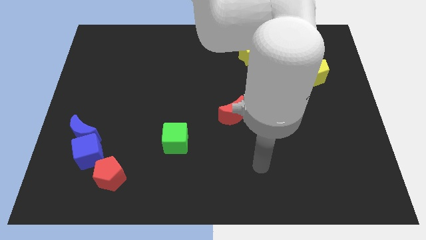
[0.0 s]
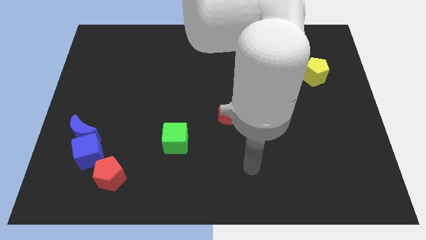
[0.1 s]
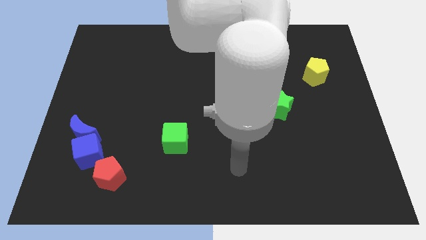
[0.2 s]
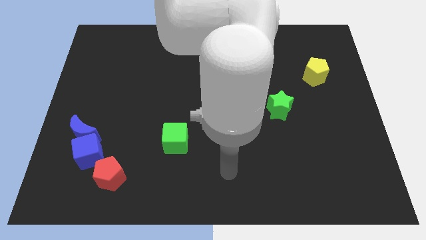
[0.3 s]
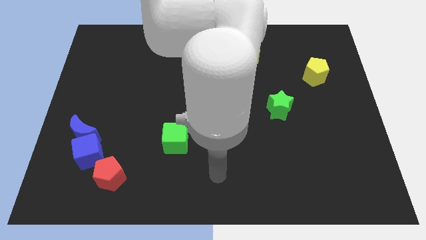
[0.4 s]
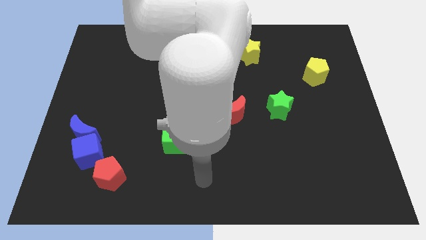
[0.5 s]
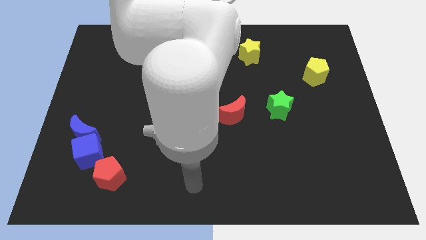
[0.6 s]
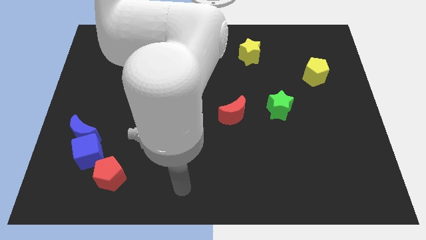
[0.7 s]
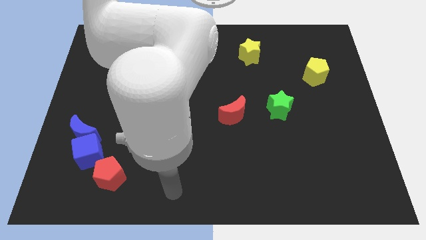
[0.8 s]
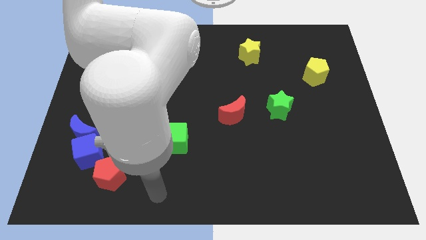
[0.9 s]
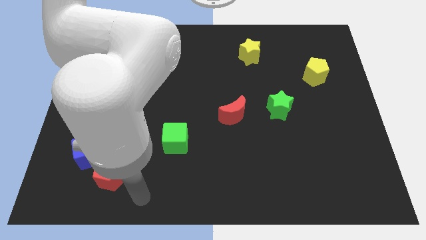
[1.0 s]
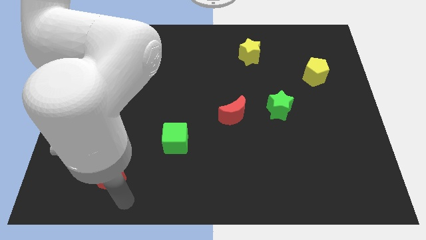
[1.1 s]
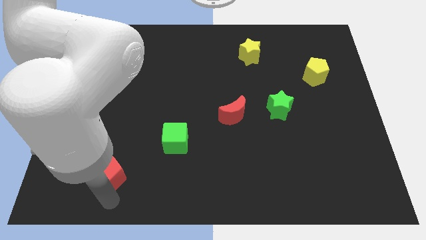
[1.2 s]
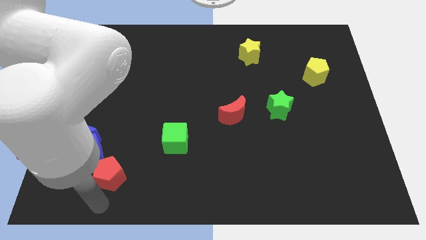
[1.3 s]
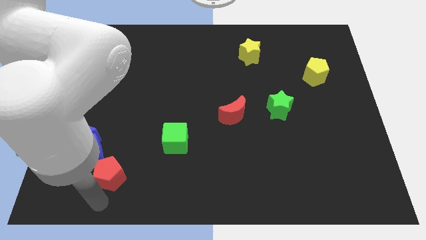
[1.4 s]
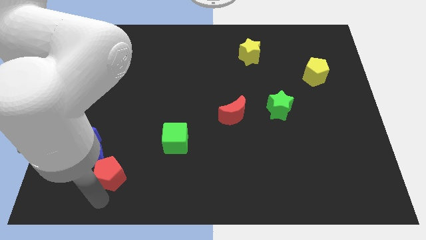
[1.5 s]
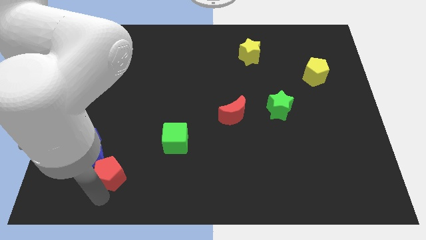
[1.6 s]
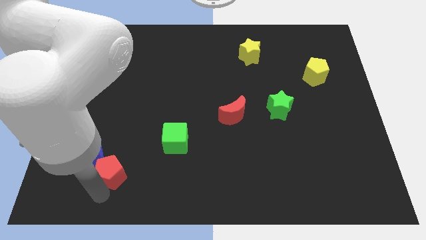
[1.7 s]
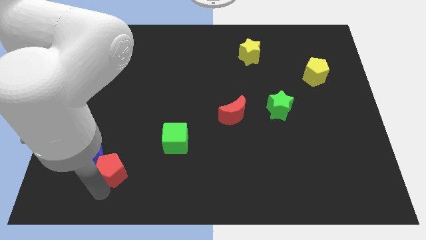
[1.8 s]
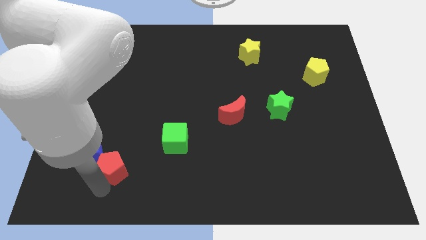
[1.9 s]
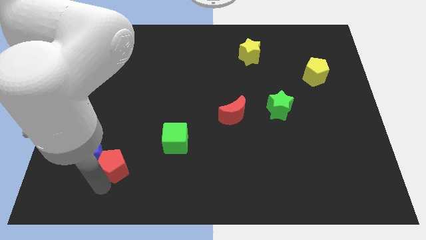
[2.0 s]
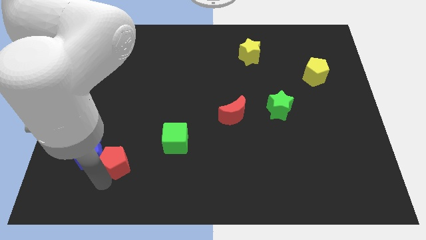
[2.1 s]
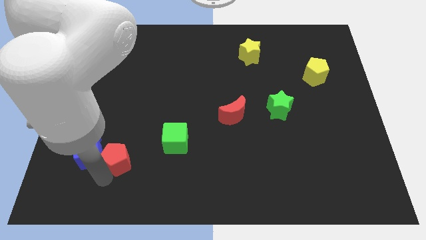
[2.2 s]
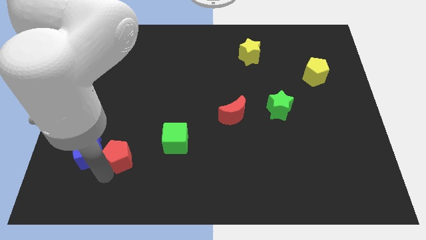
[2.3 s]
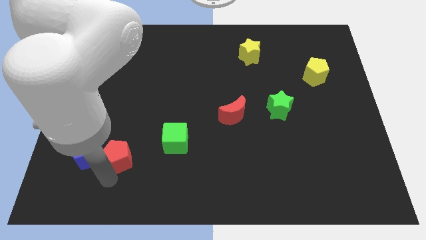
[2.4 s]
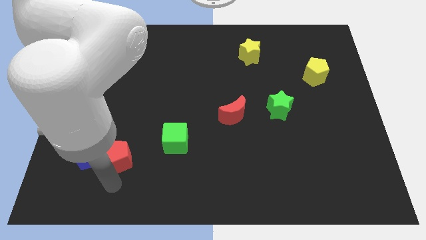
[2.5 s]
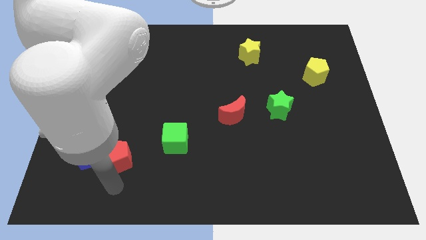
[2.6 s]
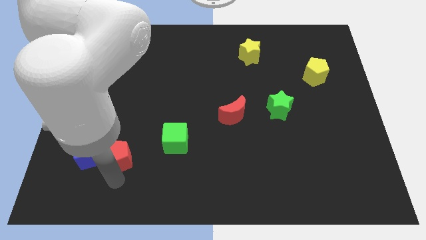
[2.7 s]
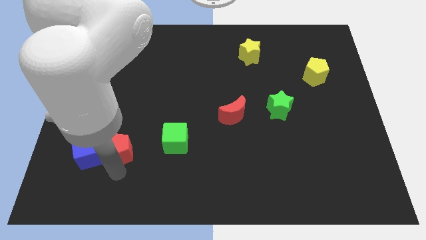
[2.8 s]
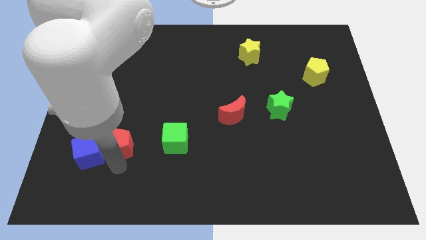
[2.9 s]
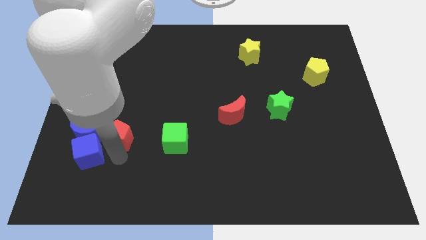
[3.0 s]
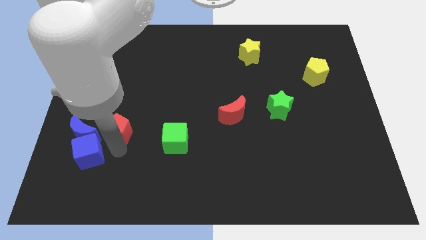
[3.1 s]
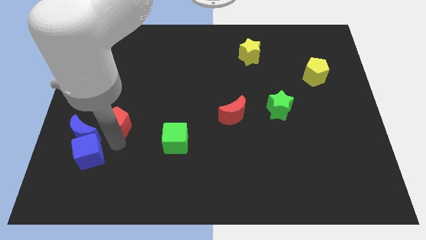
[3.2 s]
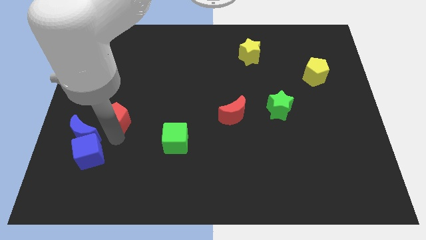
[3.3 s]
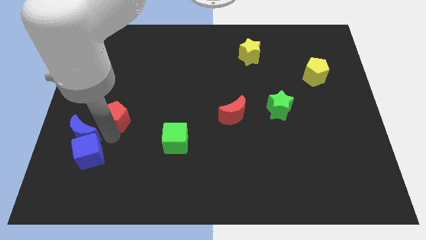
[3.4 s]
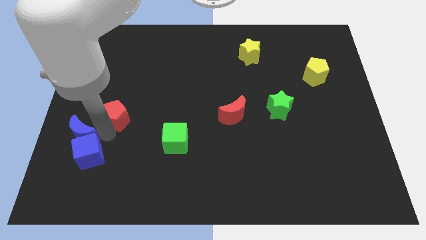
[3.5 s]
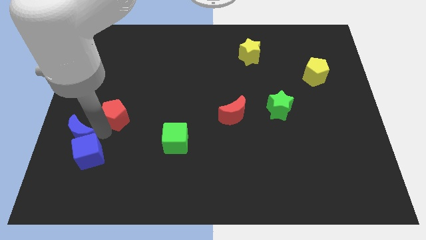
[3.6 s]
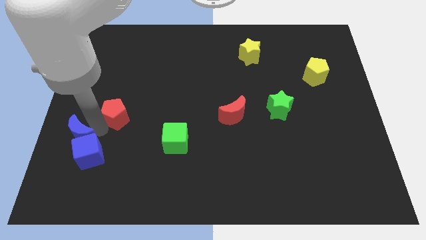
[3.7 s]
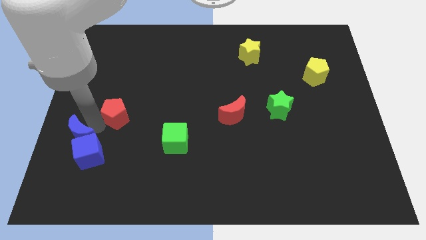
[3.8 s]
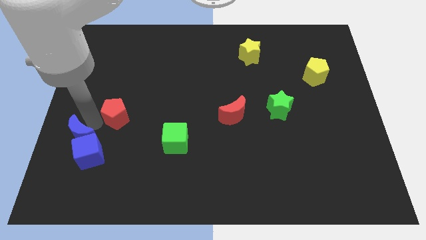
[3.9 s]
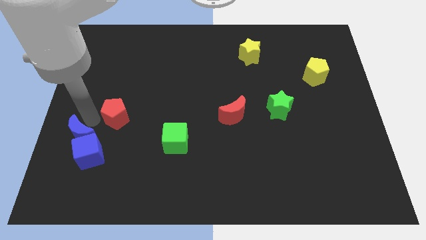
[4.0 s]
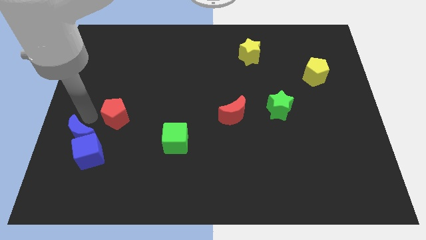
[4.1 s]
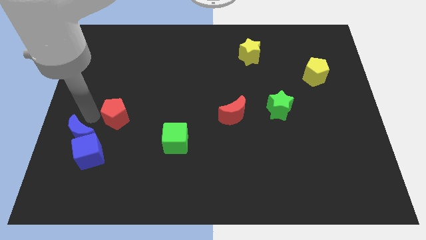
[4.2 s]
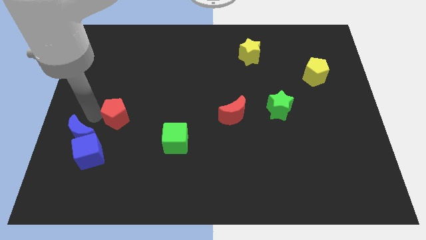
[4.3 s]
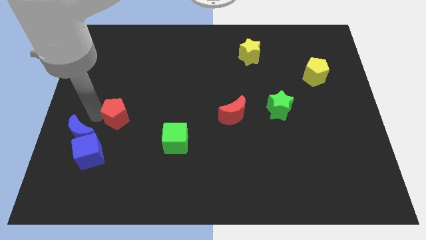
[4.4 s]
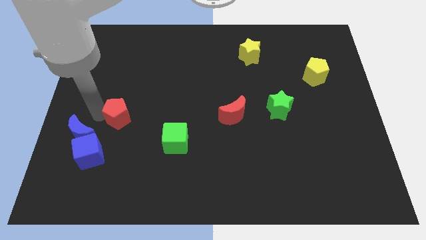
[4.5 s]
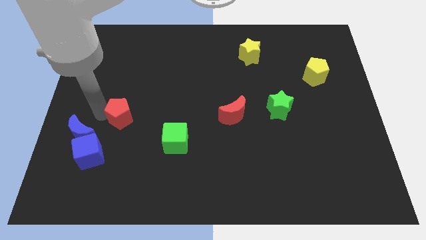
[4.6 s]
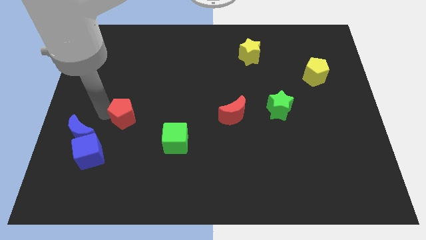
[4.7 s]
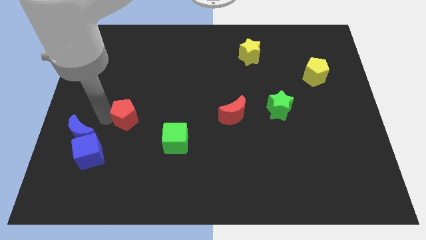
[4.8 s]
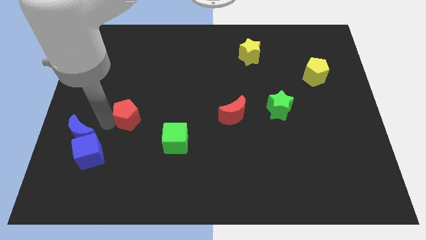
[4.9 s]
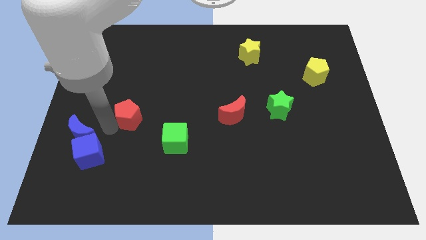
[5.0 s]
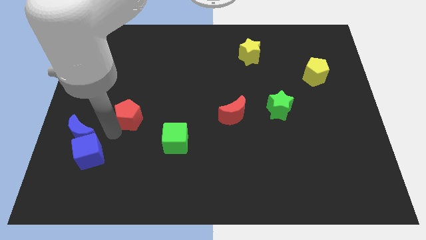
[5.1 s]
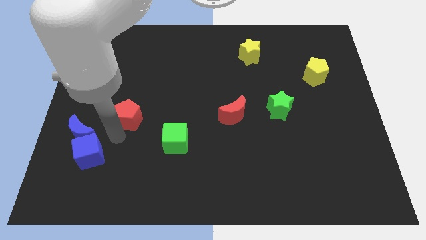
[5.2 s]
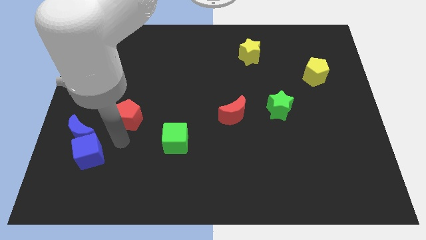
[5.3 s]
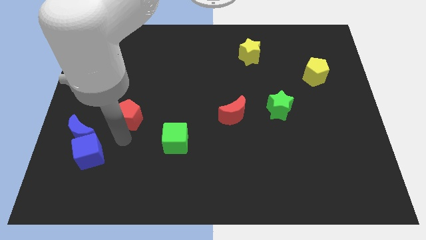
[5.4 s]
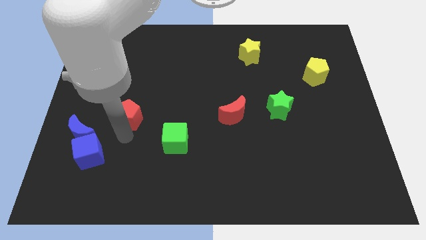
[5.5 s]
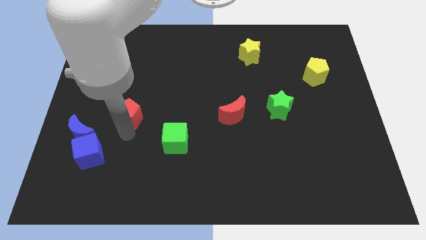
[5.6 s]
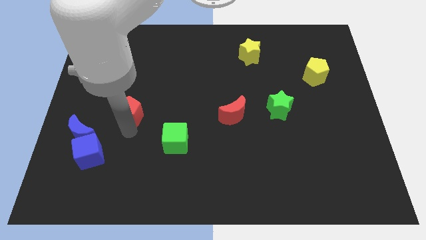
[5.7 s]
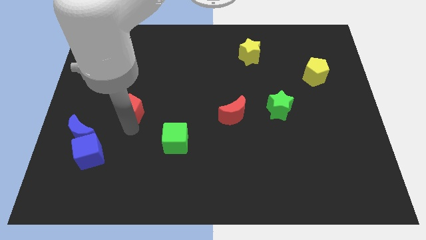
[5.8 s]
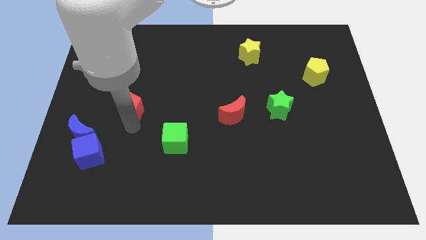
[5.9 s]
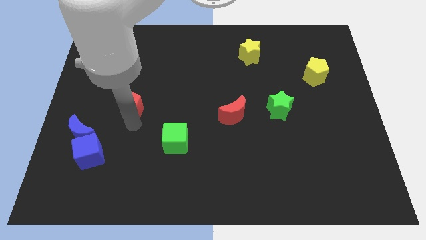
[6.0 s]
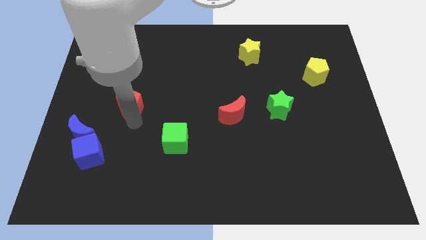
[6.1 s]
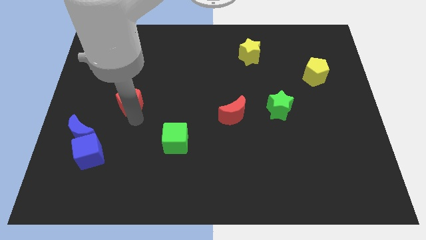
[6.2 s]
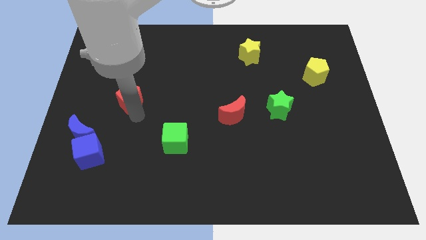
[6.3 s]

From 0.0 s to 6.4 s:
slide the red pentagon upwards

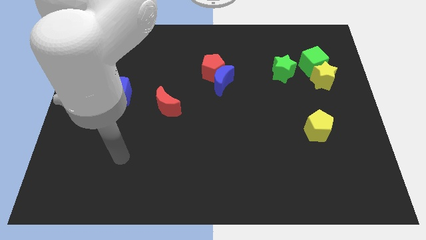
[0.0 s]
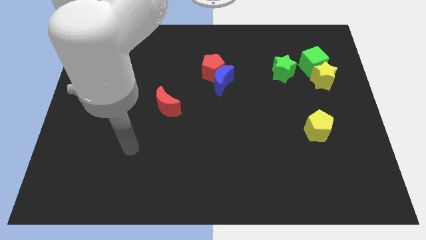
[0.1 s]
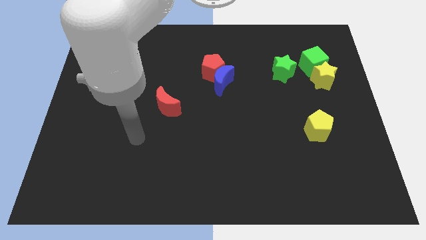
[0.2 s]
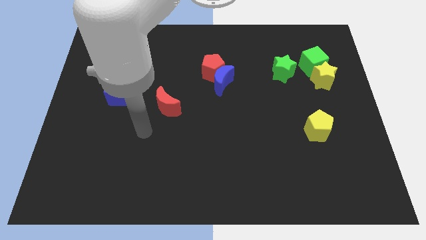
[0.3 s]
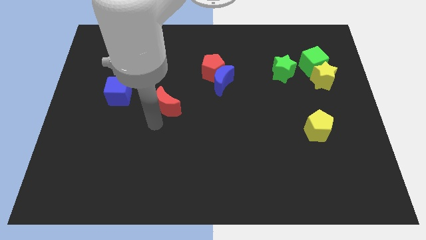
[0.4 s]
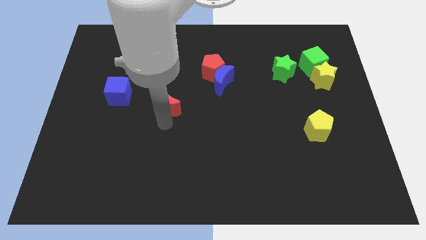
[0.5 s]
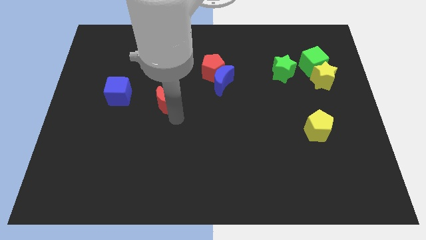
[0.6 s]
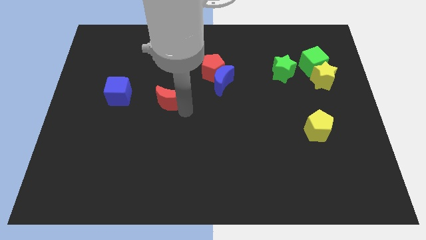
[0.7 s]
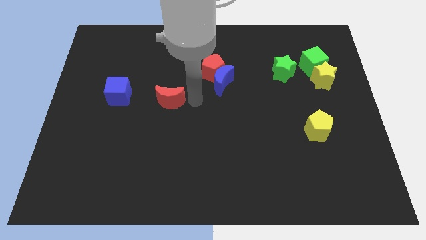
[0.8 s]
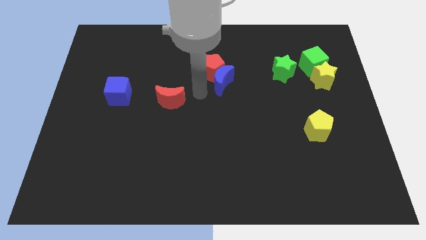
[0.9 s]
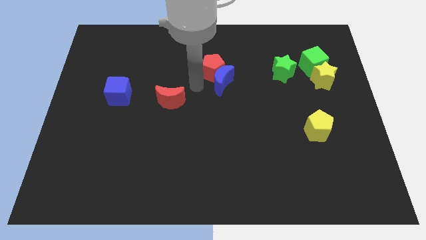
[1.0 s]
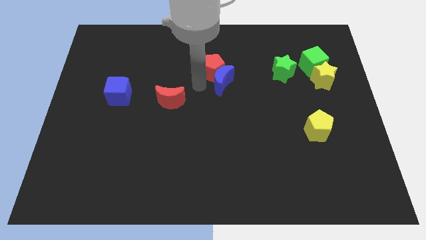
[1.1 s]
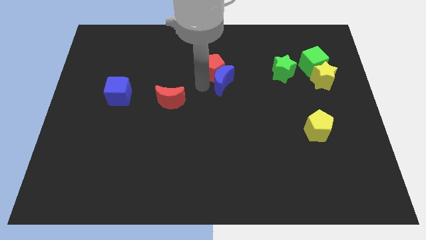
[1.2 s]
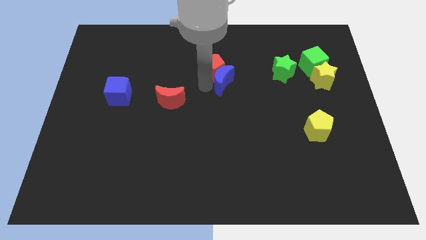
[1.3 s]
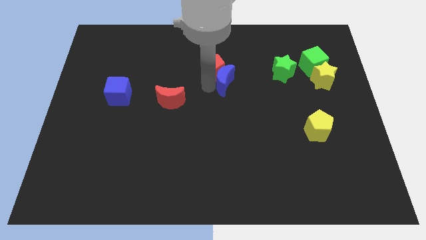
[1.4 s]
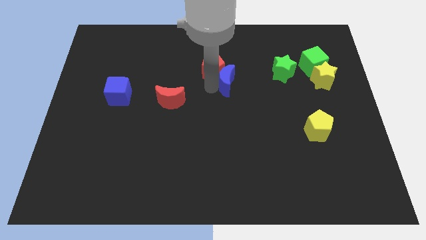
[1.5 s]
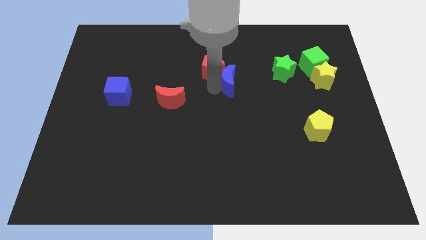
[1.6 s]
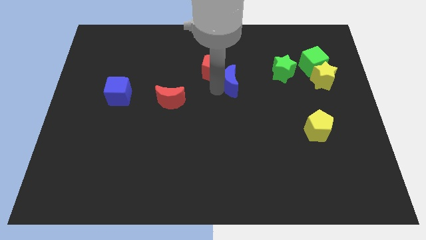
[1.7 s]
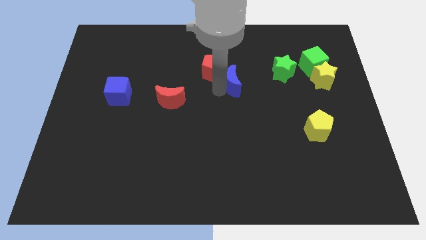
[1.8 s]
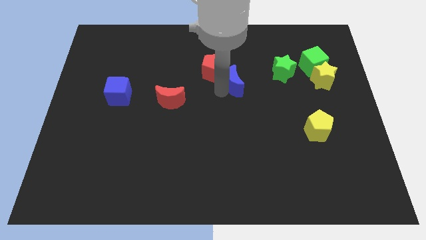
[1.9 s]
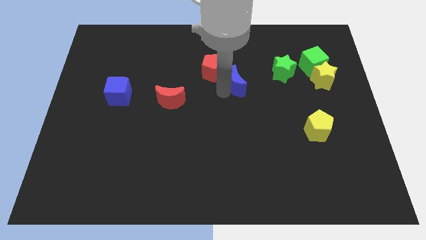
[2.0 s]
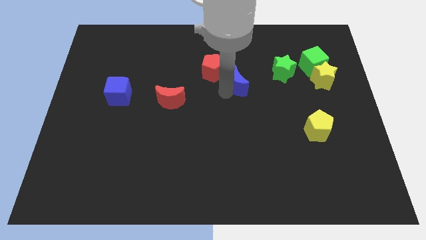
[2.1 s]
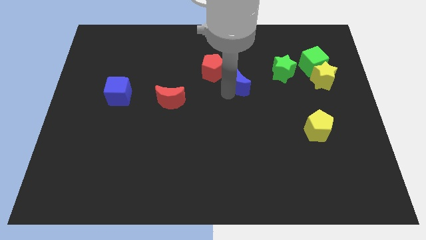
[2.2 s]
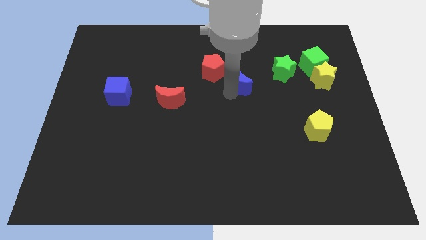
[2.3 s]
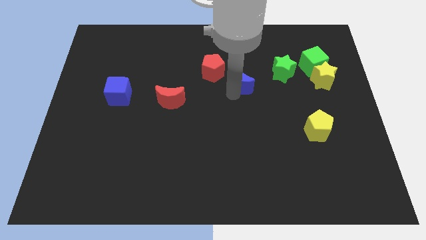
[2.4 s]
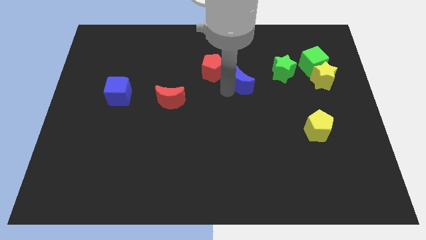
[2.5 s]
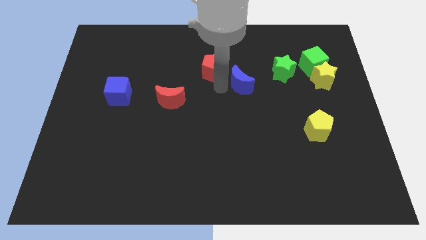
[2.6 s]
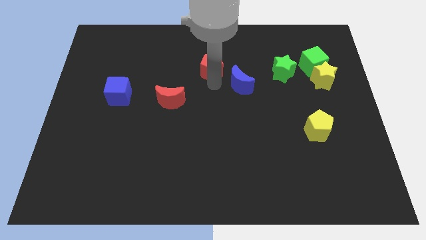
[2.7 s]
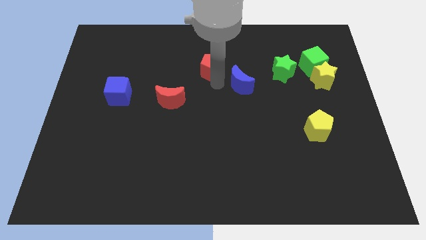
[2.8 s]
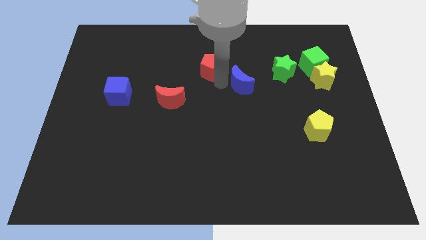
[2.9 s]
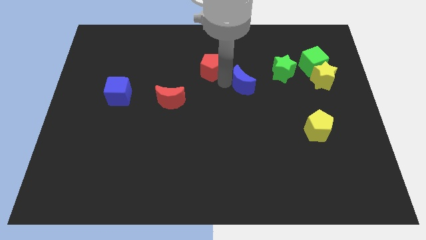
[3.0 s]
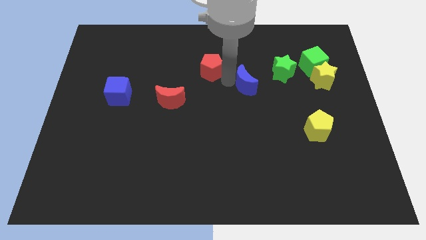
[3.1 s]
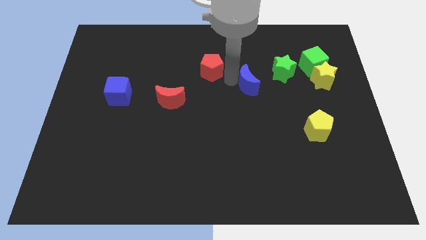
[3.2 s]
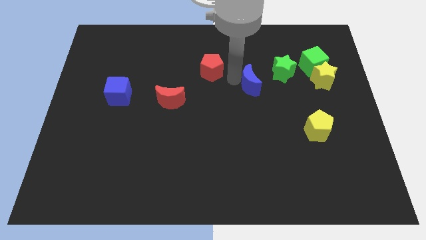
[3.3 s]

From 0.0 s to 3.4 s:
move the blue moon right a little bit
